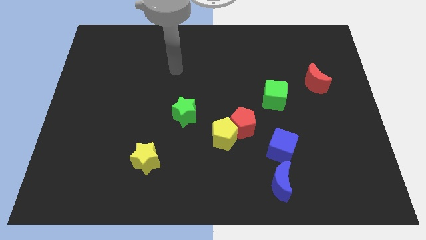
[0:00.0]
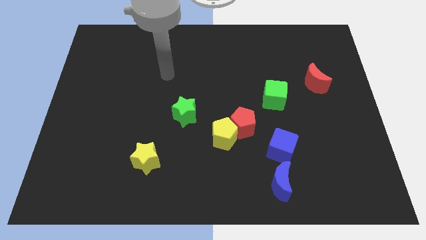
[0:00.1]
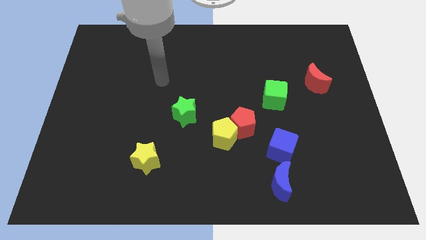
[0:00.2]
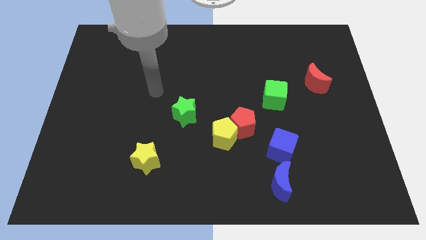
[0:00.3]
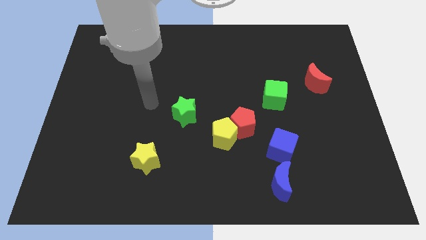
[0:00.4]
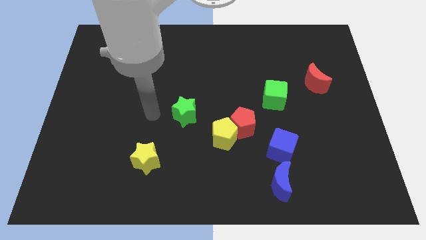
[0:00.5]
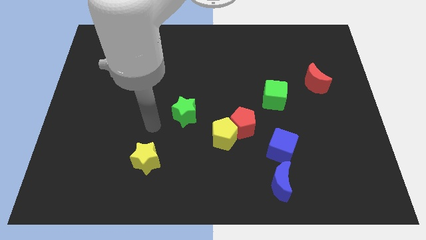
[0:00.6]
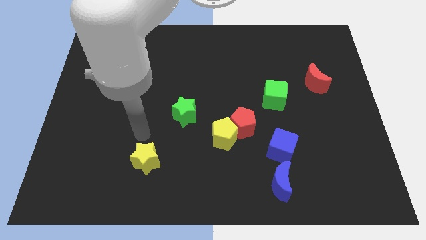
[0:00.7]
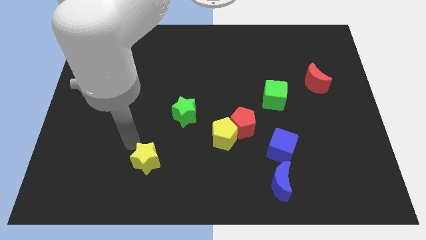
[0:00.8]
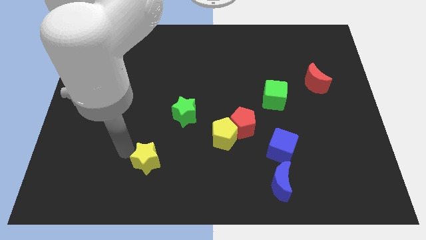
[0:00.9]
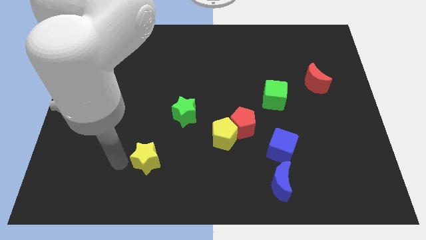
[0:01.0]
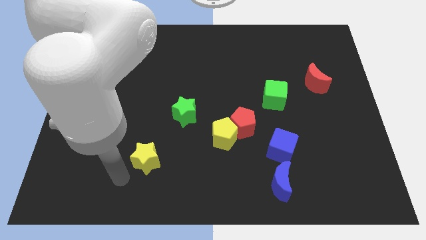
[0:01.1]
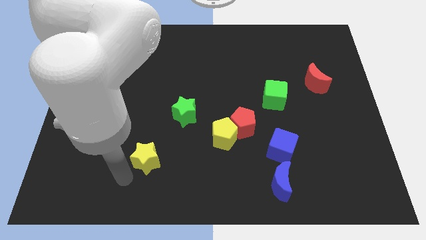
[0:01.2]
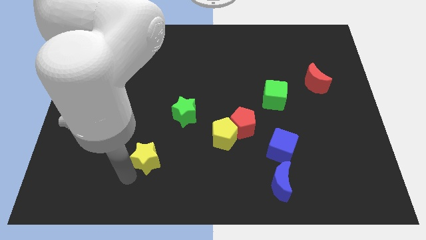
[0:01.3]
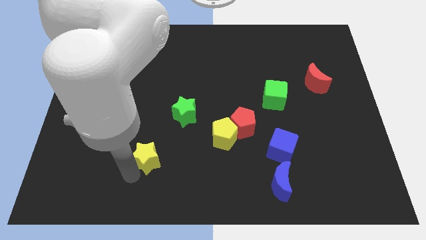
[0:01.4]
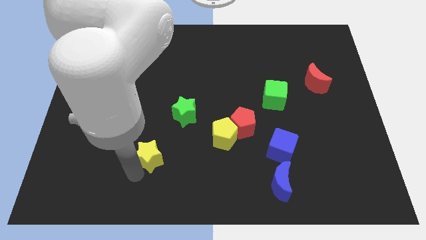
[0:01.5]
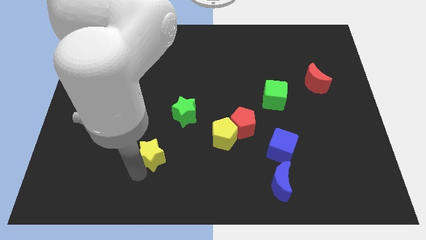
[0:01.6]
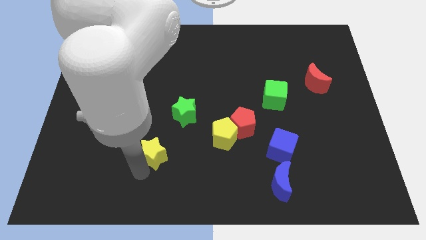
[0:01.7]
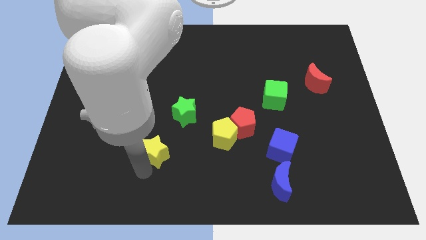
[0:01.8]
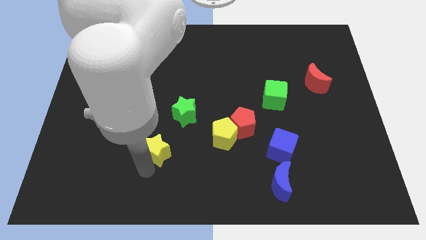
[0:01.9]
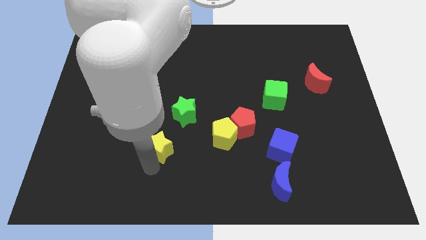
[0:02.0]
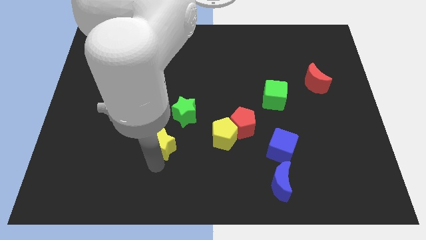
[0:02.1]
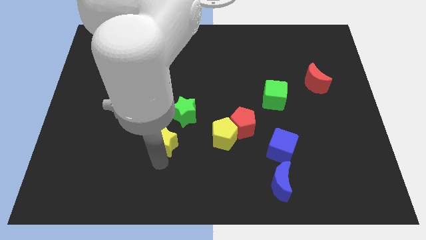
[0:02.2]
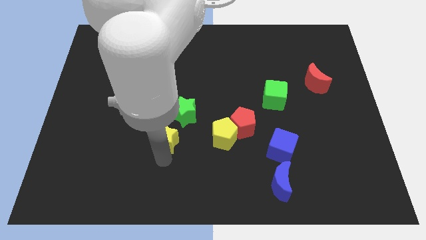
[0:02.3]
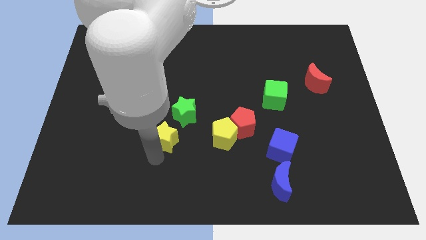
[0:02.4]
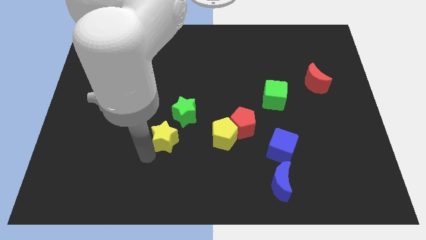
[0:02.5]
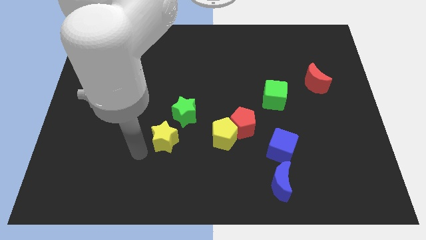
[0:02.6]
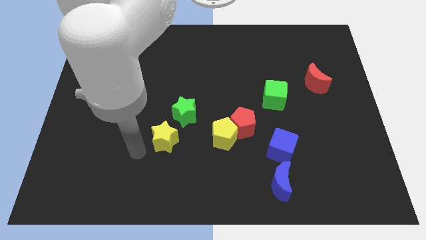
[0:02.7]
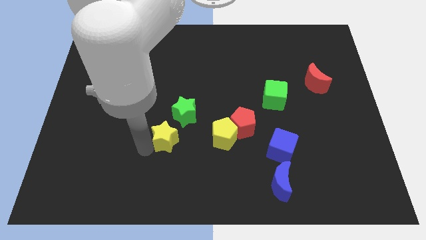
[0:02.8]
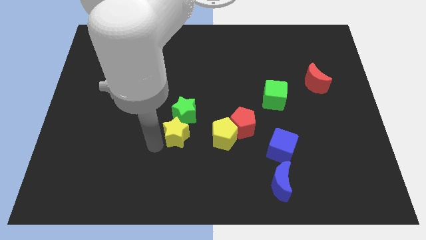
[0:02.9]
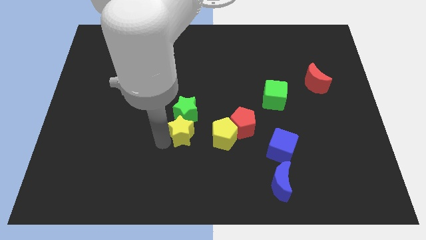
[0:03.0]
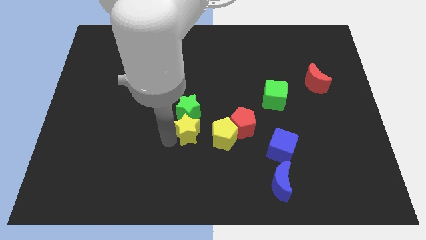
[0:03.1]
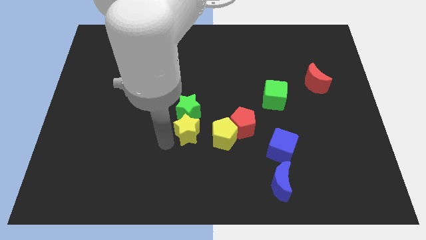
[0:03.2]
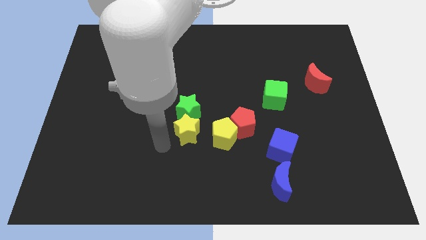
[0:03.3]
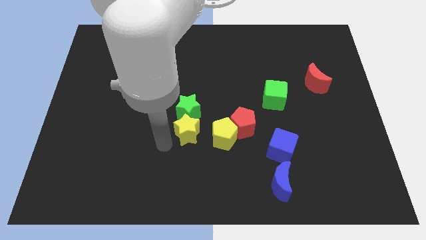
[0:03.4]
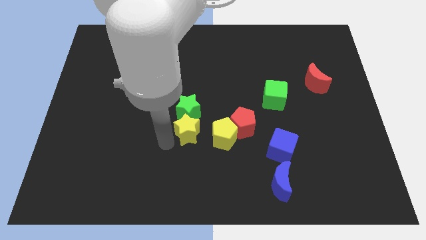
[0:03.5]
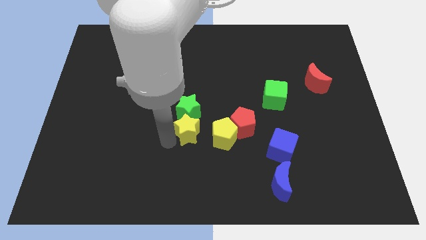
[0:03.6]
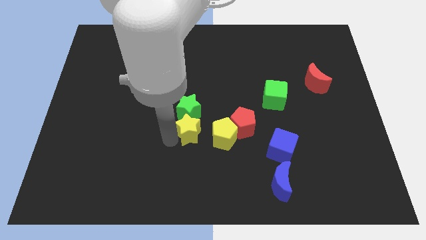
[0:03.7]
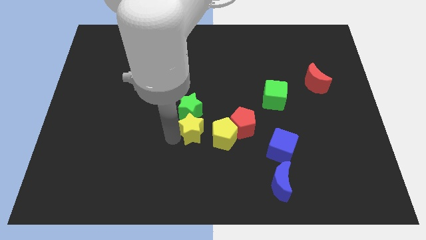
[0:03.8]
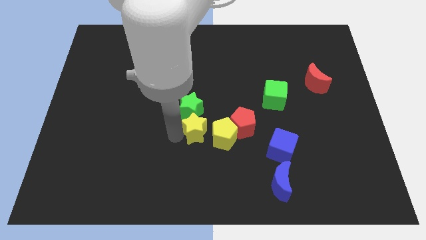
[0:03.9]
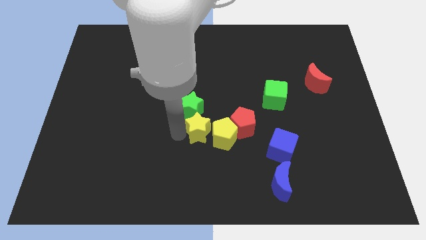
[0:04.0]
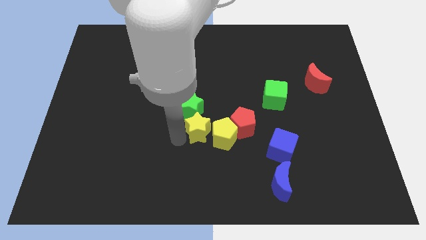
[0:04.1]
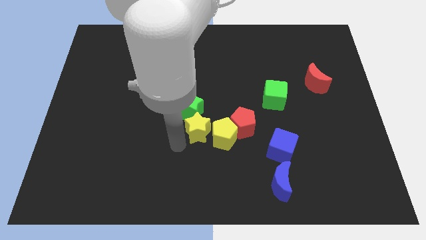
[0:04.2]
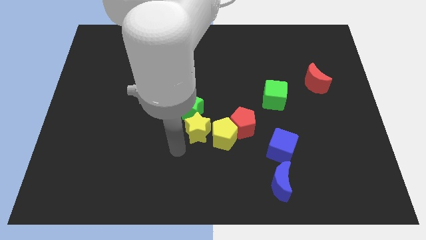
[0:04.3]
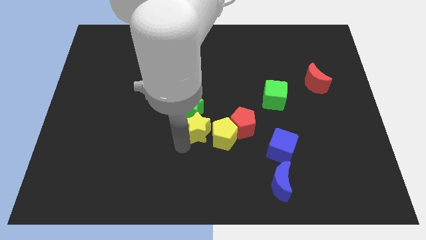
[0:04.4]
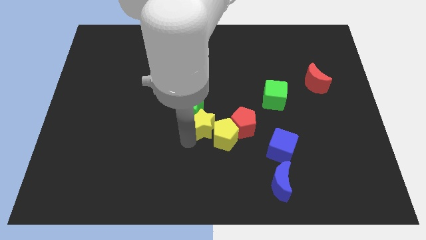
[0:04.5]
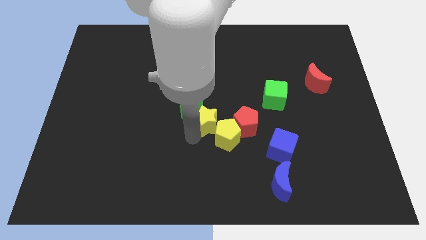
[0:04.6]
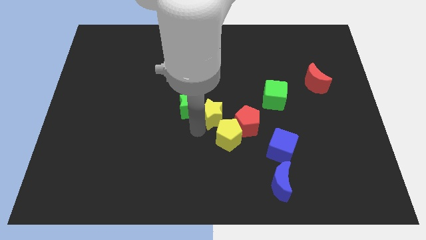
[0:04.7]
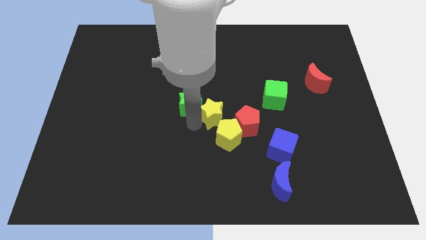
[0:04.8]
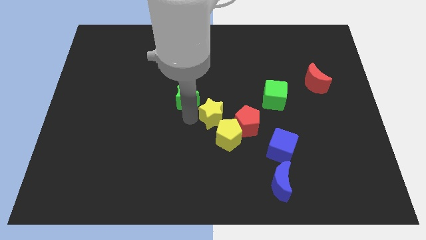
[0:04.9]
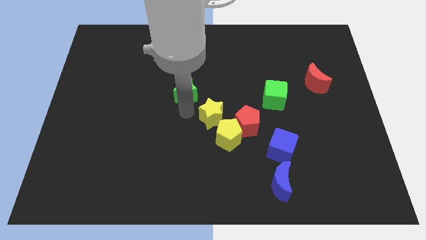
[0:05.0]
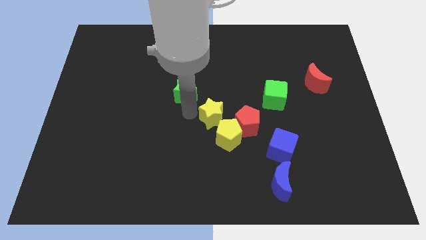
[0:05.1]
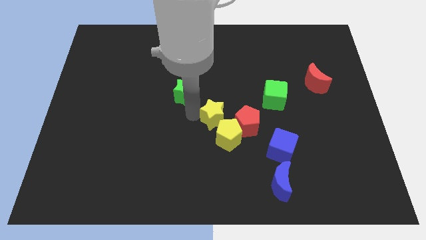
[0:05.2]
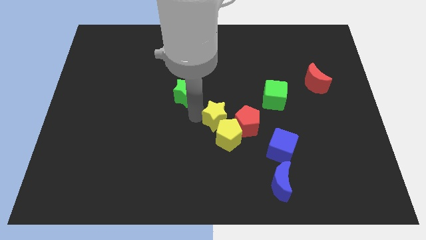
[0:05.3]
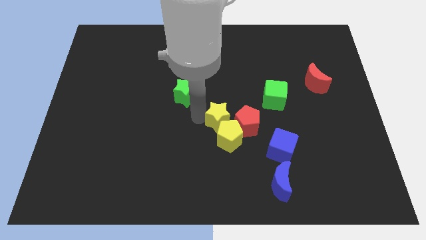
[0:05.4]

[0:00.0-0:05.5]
slide the yellow star next to the red pentagon

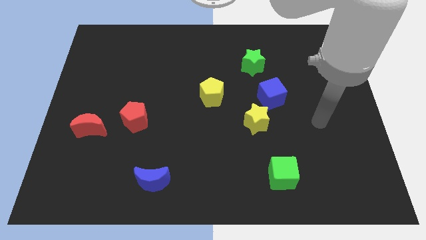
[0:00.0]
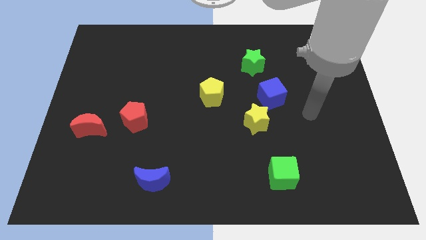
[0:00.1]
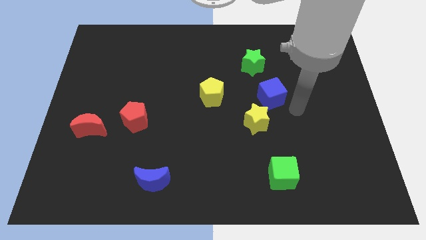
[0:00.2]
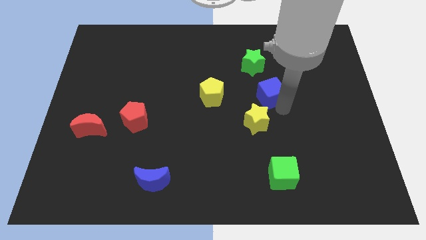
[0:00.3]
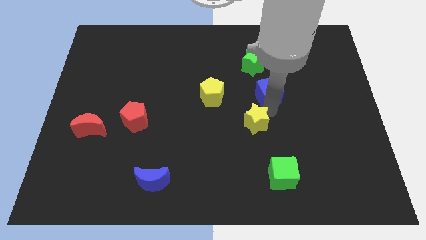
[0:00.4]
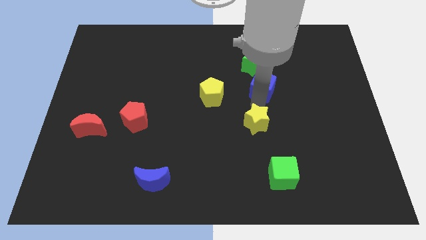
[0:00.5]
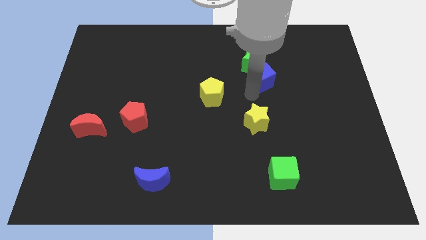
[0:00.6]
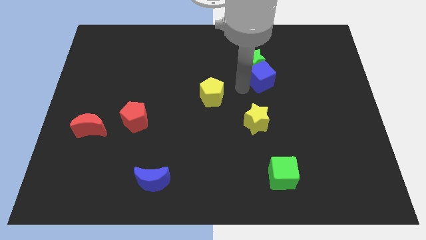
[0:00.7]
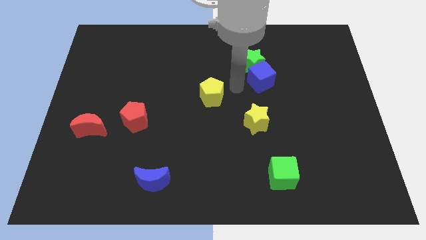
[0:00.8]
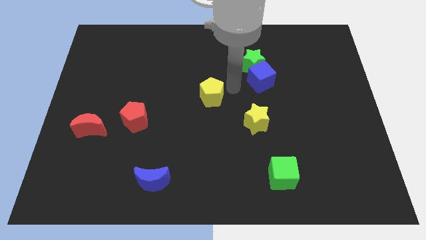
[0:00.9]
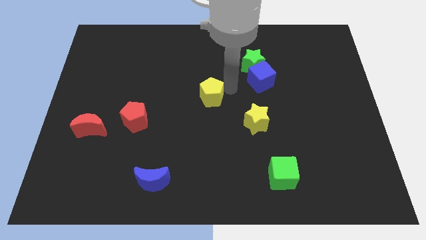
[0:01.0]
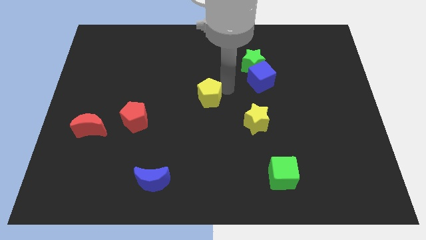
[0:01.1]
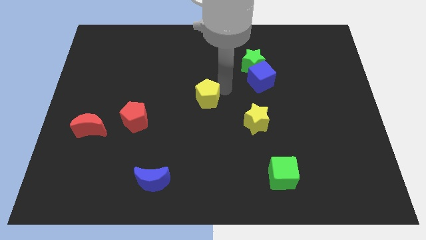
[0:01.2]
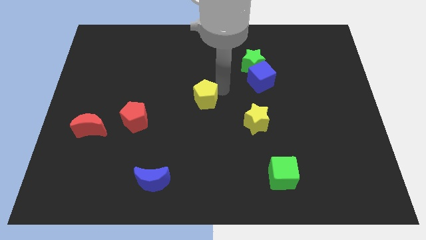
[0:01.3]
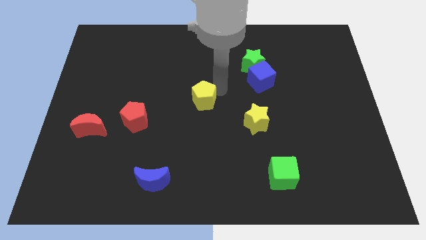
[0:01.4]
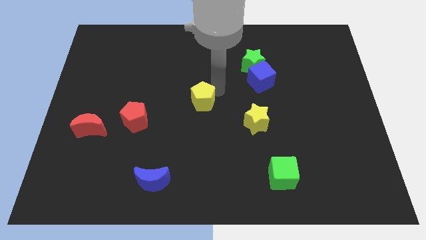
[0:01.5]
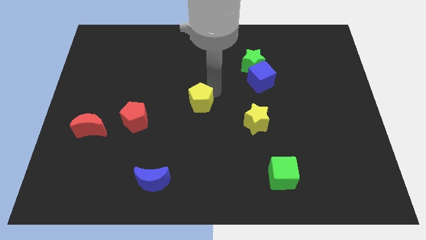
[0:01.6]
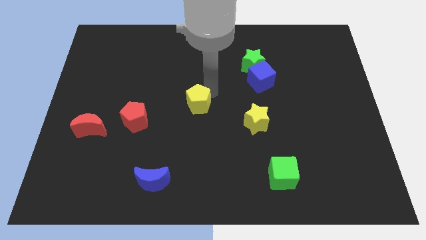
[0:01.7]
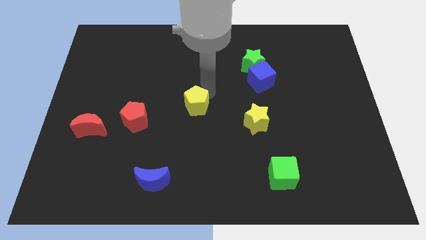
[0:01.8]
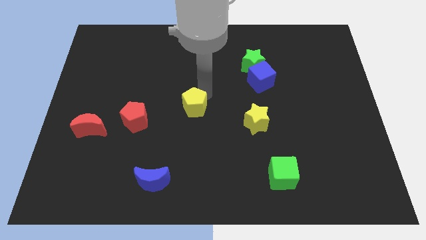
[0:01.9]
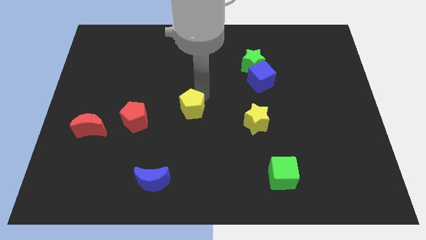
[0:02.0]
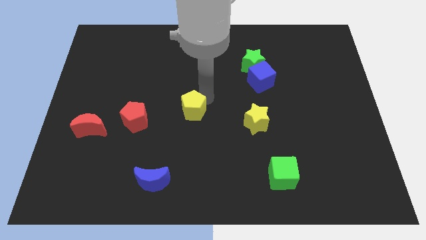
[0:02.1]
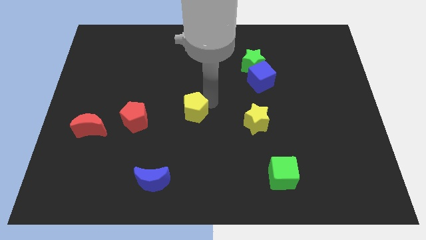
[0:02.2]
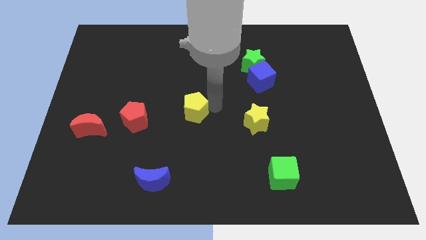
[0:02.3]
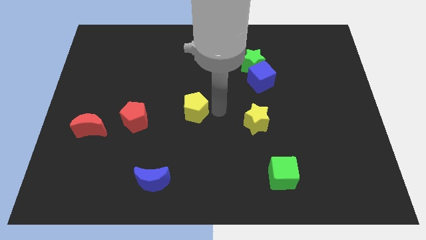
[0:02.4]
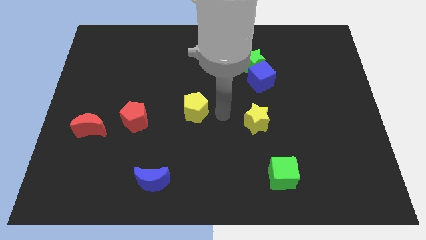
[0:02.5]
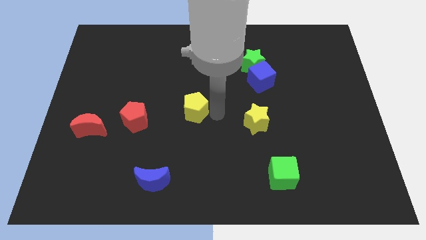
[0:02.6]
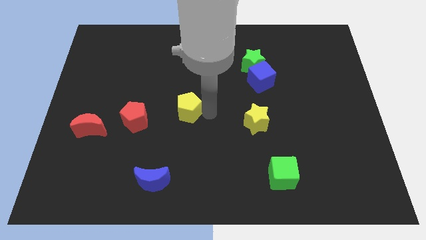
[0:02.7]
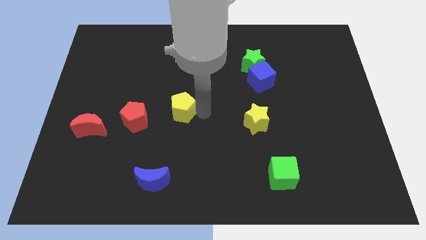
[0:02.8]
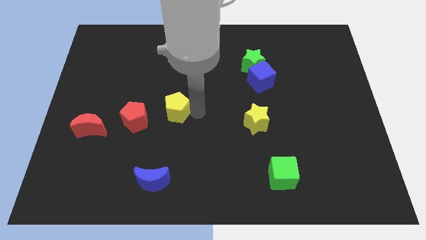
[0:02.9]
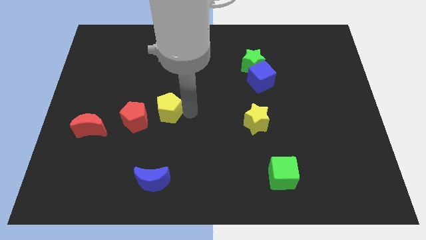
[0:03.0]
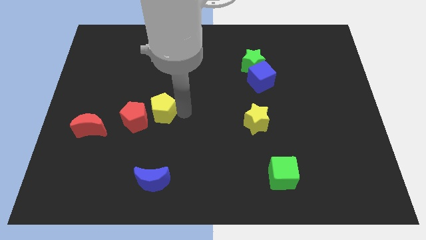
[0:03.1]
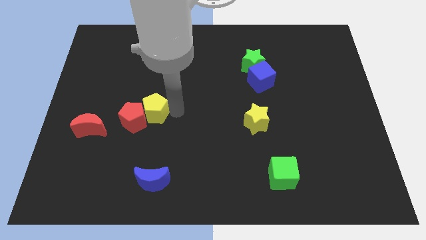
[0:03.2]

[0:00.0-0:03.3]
push the yellow pentagon towards the red pentagon
